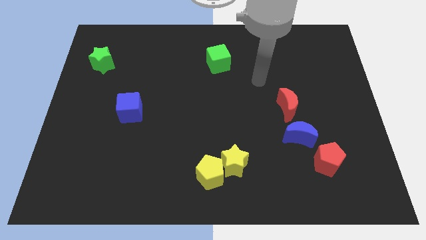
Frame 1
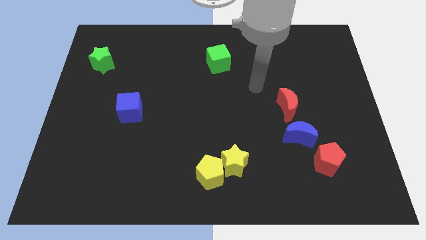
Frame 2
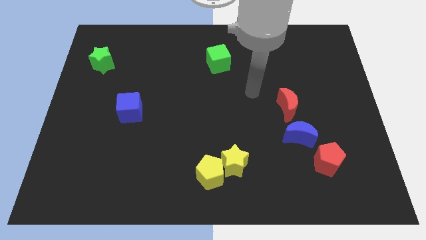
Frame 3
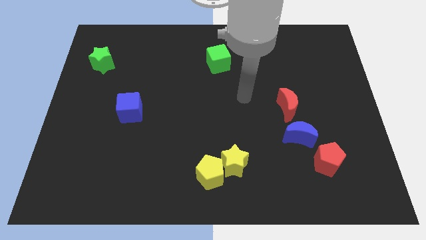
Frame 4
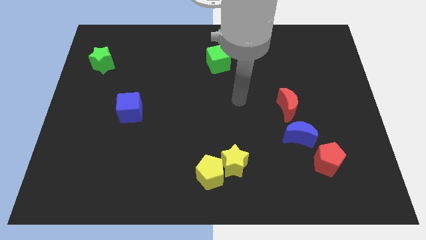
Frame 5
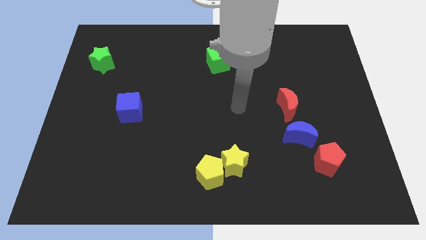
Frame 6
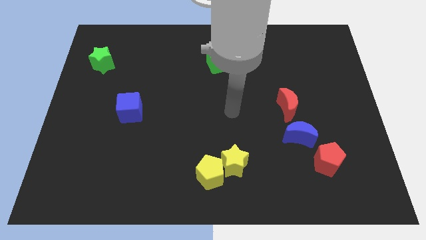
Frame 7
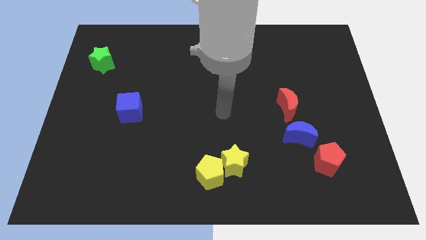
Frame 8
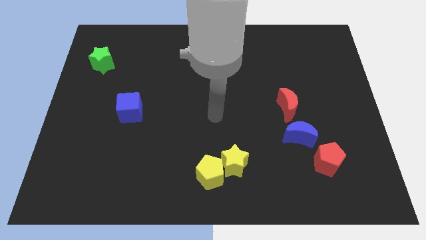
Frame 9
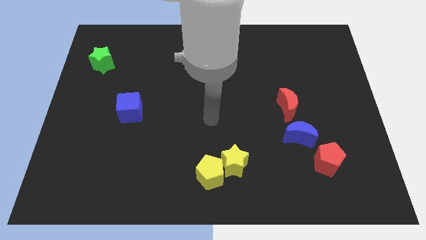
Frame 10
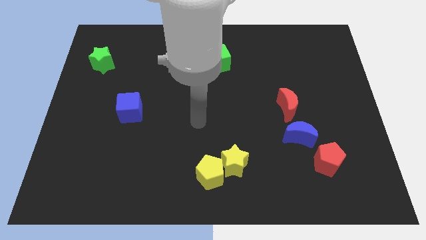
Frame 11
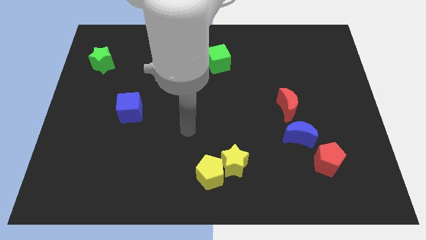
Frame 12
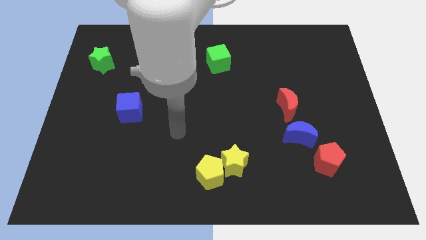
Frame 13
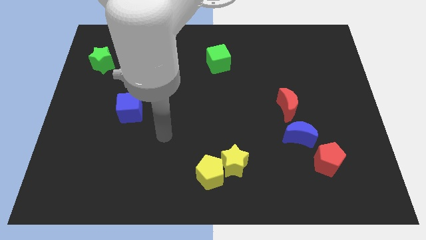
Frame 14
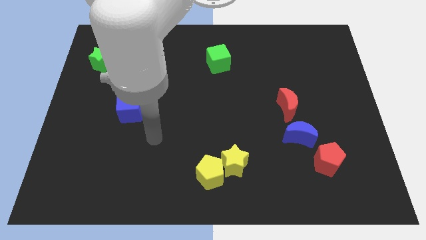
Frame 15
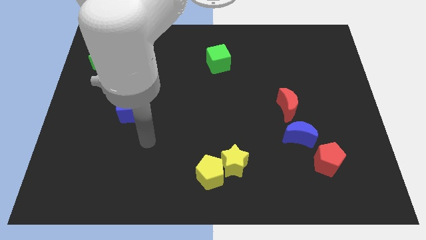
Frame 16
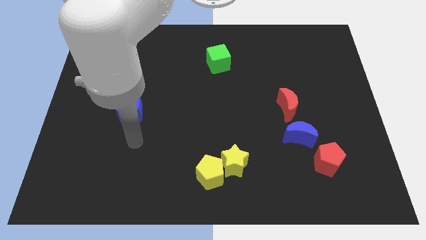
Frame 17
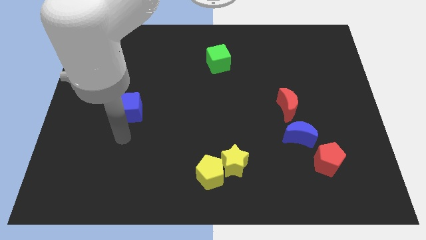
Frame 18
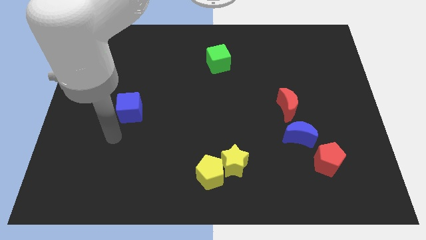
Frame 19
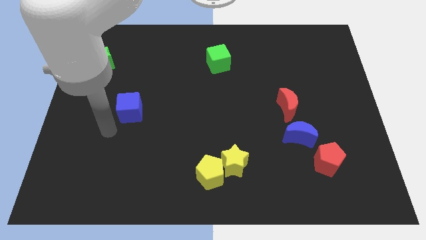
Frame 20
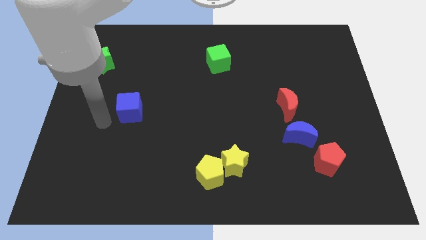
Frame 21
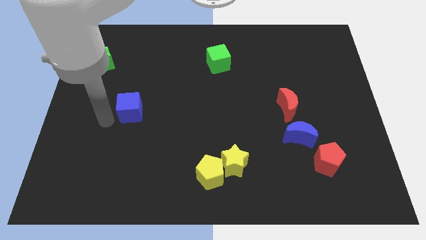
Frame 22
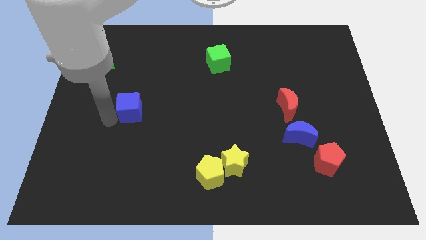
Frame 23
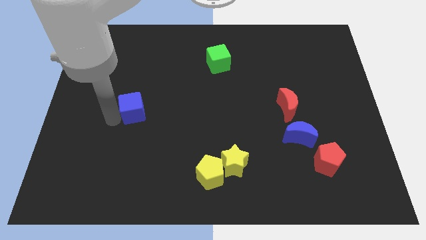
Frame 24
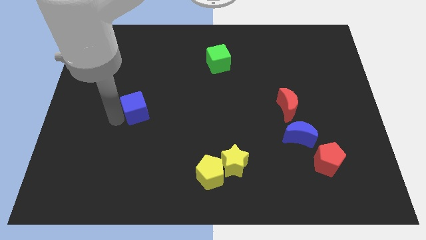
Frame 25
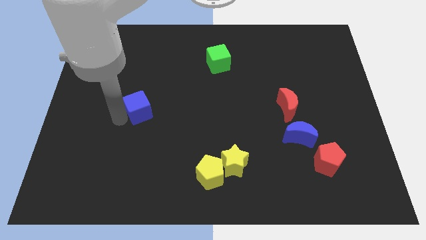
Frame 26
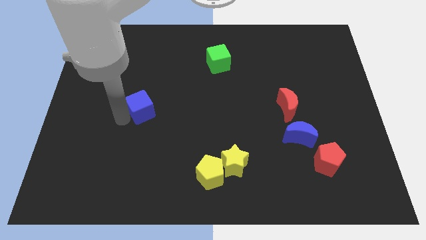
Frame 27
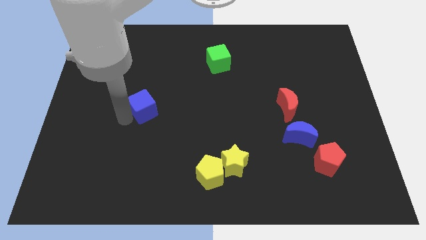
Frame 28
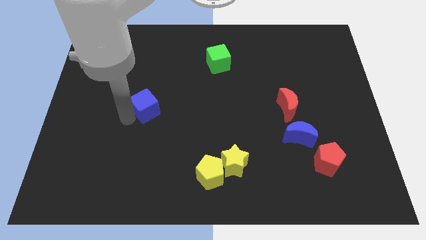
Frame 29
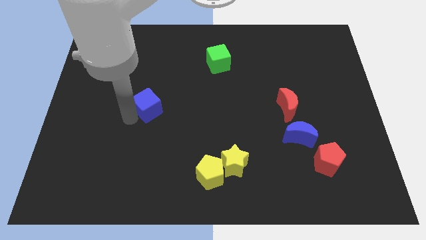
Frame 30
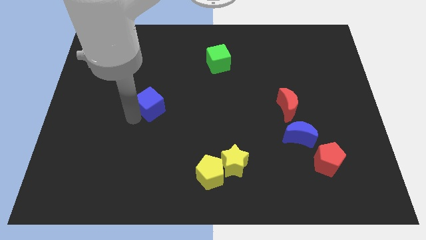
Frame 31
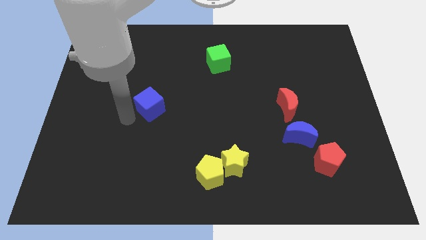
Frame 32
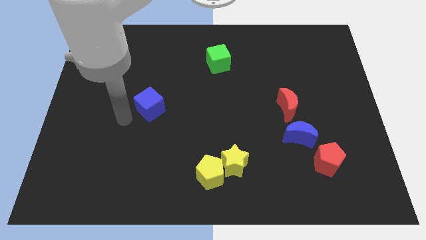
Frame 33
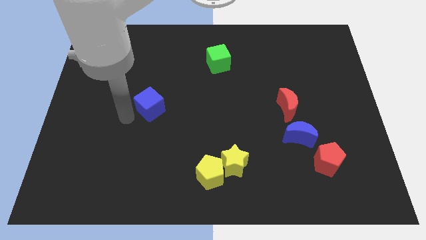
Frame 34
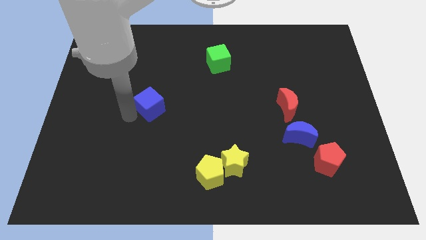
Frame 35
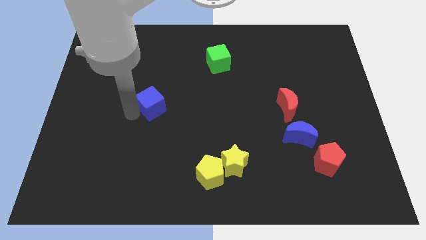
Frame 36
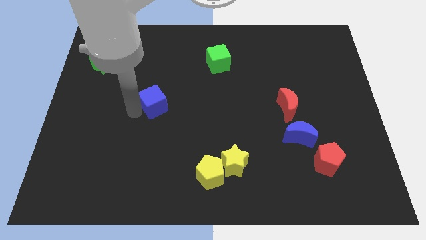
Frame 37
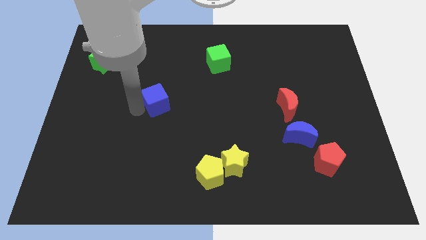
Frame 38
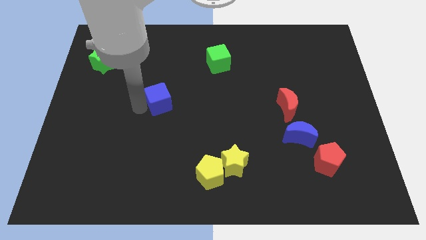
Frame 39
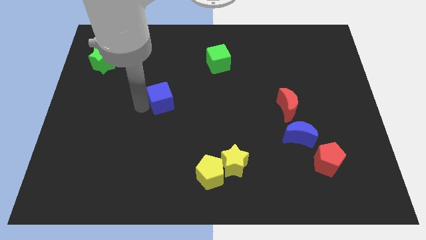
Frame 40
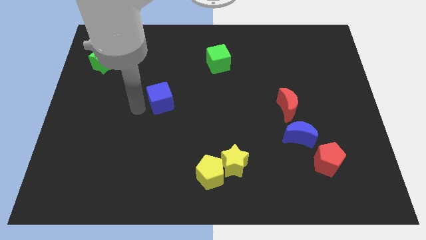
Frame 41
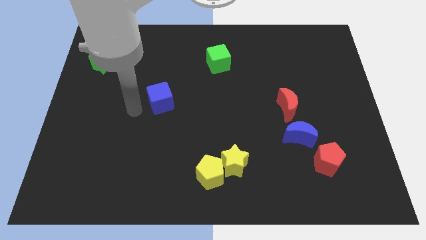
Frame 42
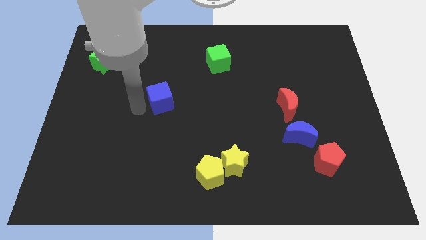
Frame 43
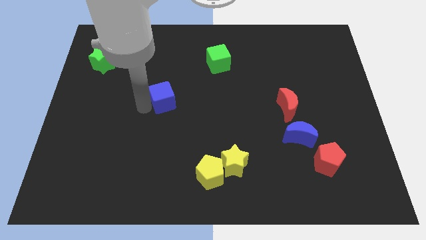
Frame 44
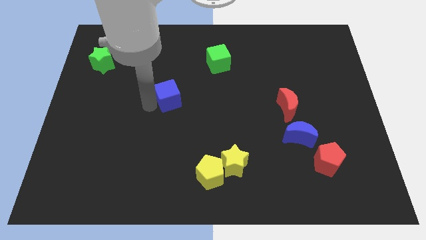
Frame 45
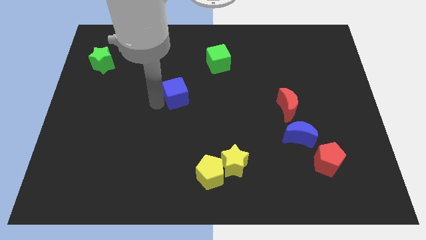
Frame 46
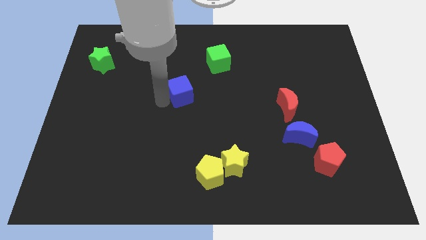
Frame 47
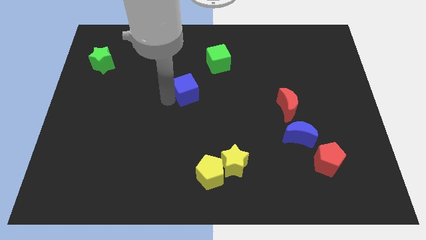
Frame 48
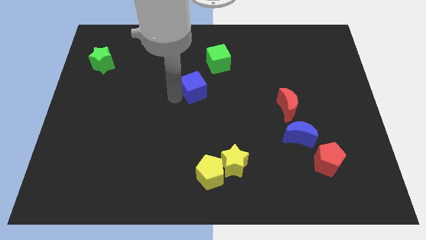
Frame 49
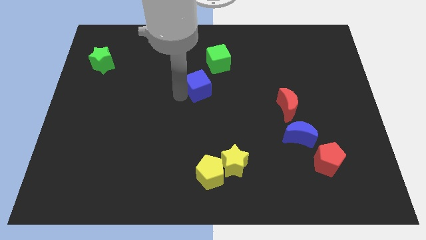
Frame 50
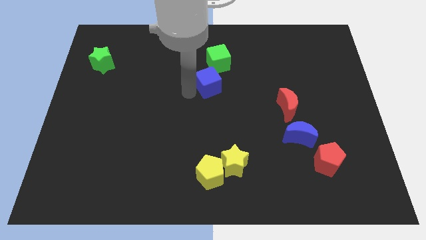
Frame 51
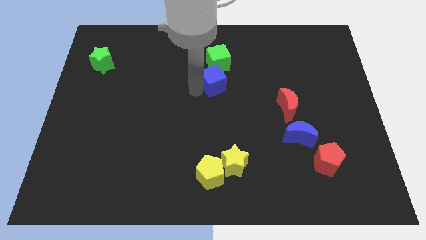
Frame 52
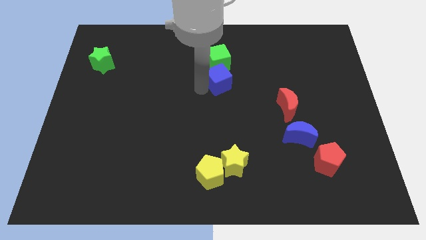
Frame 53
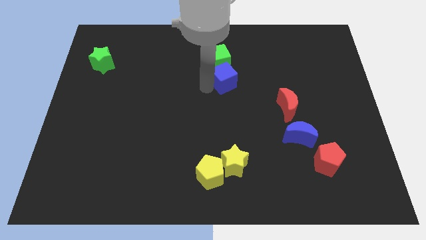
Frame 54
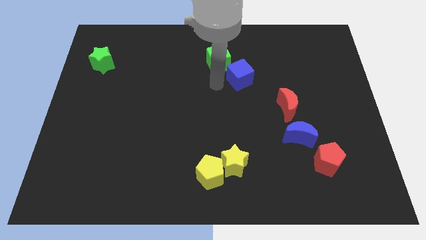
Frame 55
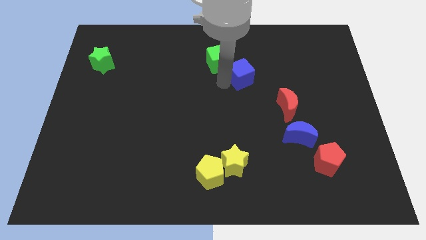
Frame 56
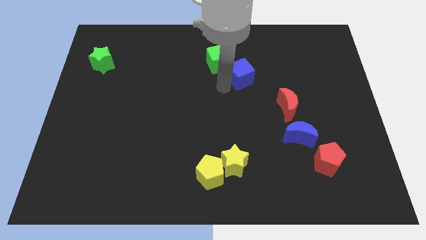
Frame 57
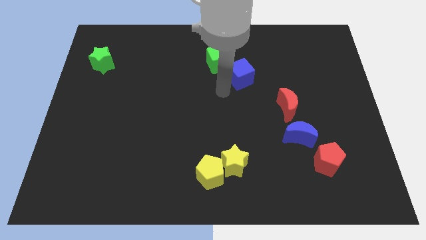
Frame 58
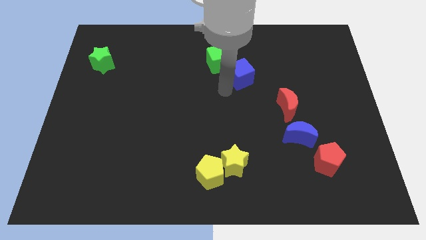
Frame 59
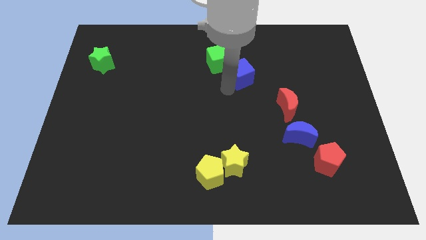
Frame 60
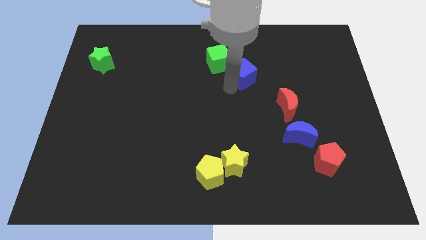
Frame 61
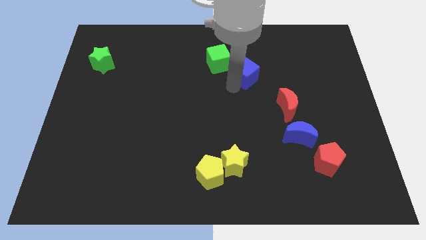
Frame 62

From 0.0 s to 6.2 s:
slide the blue cube to the right of the green cube
